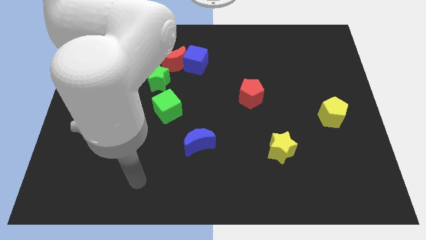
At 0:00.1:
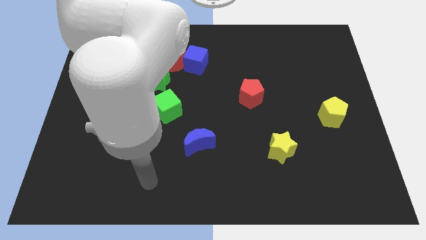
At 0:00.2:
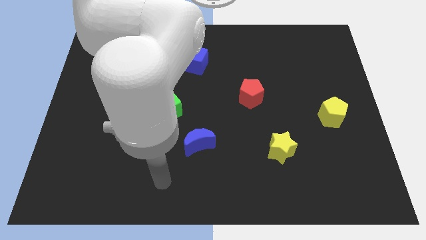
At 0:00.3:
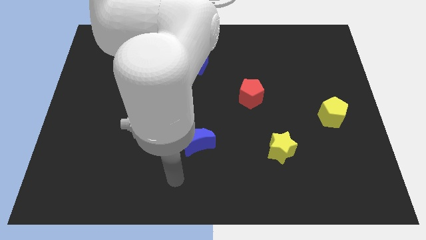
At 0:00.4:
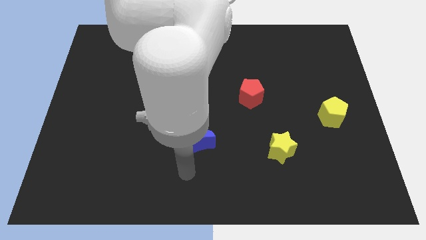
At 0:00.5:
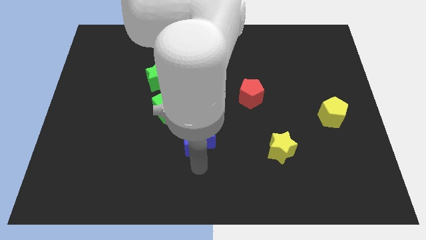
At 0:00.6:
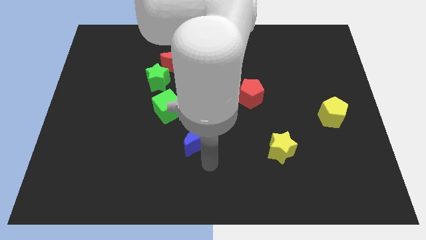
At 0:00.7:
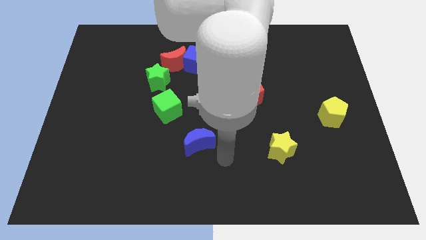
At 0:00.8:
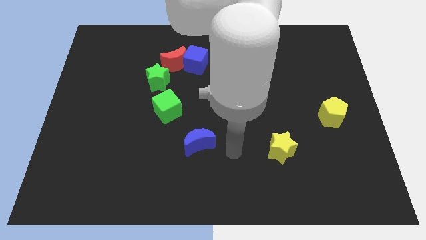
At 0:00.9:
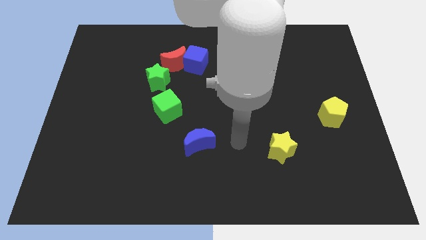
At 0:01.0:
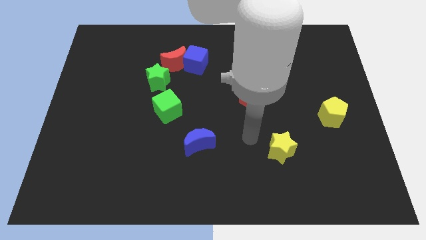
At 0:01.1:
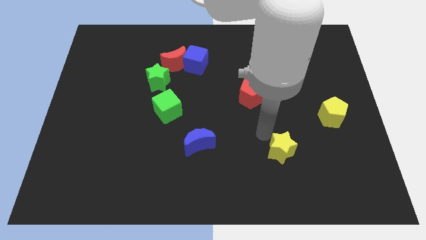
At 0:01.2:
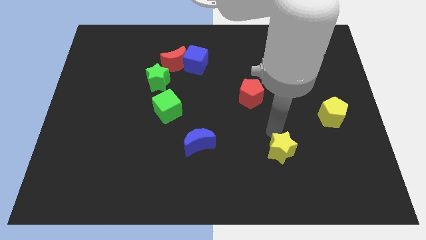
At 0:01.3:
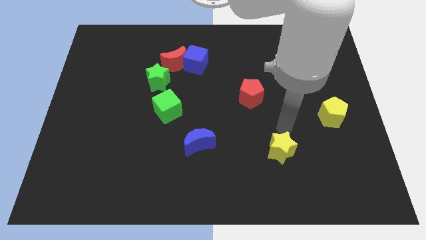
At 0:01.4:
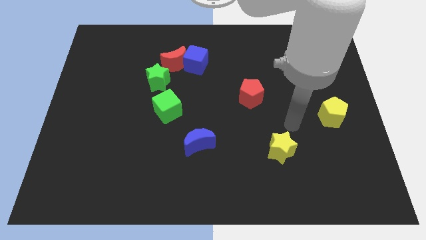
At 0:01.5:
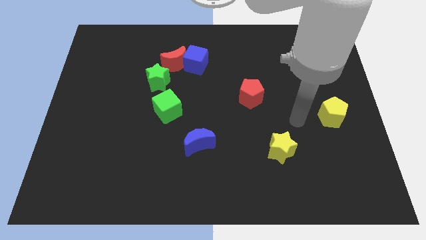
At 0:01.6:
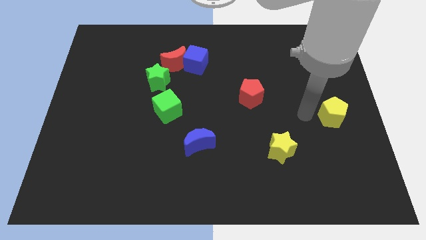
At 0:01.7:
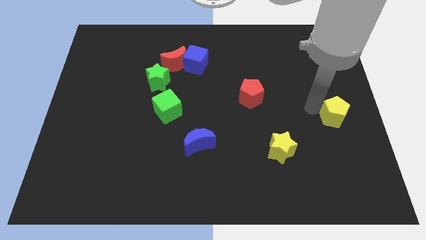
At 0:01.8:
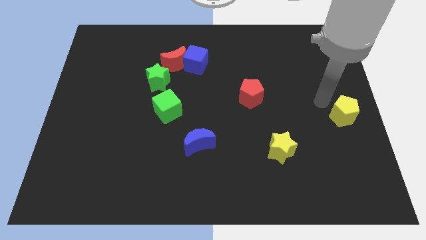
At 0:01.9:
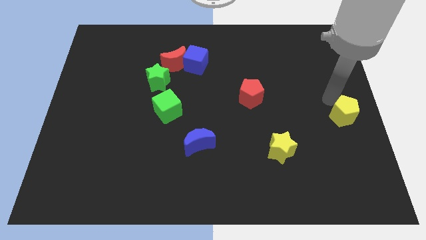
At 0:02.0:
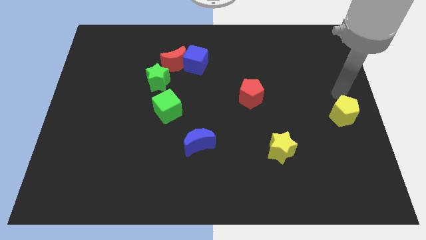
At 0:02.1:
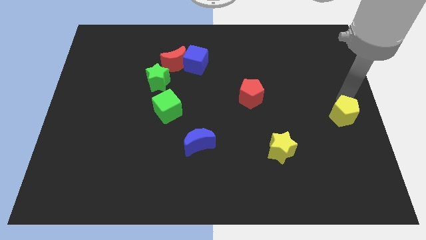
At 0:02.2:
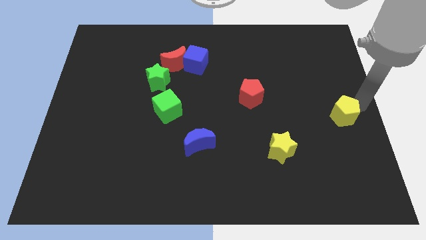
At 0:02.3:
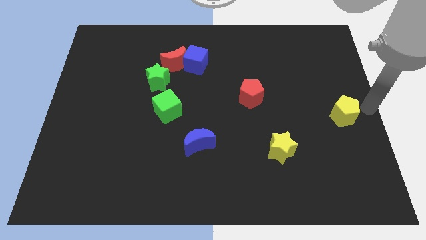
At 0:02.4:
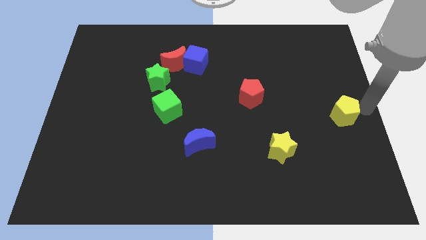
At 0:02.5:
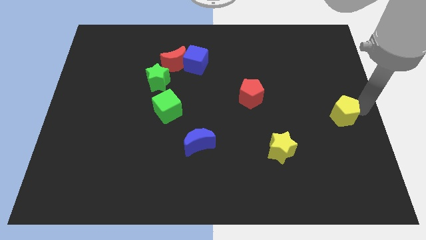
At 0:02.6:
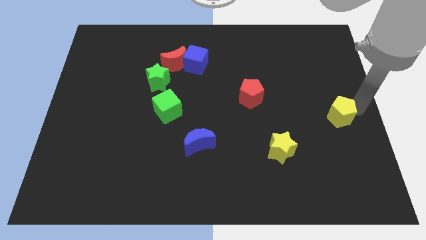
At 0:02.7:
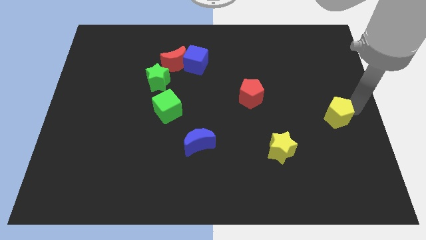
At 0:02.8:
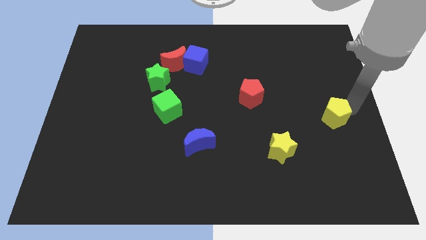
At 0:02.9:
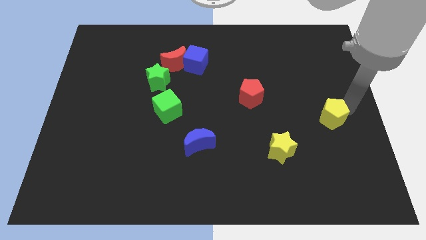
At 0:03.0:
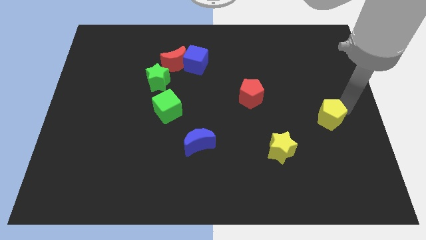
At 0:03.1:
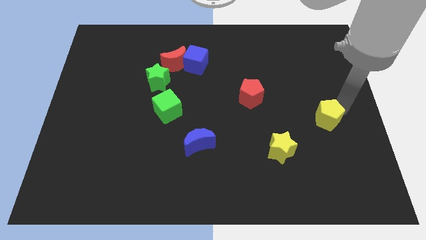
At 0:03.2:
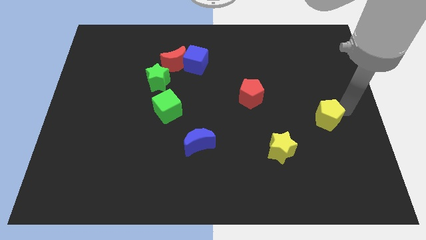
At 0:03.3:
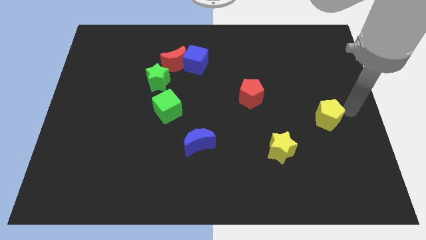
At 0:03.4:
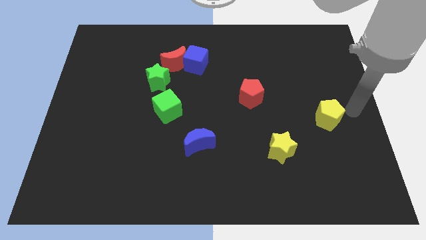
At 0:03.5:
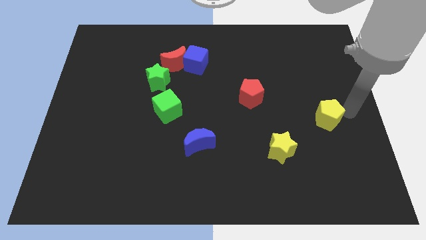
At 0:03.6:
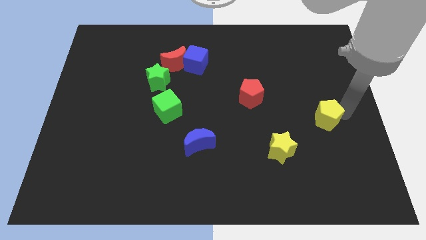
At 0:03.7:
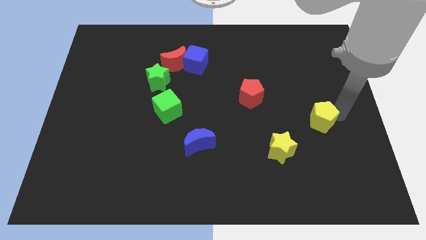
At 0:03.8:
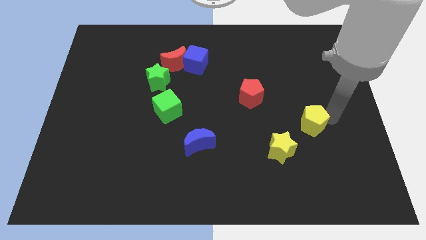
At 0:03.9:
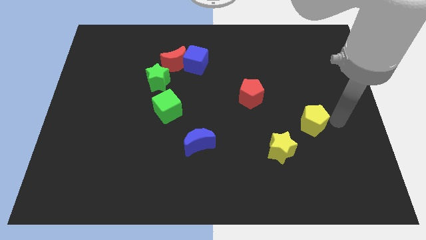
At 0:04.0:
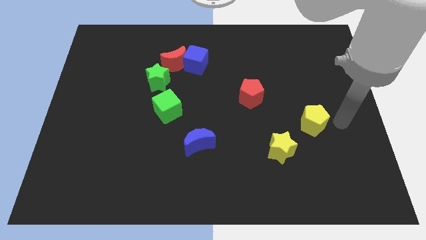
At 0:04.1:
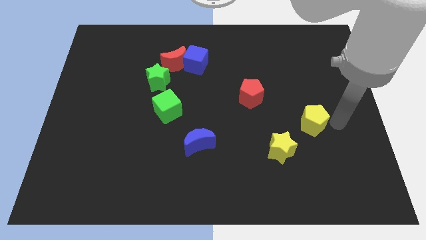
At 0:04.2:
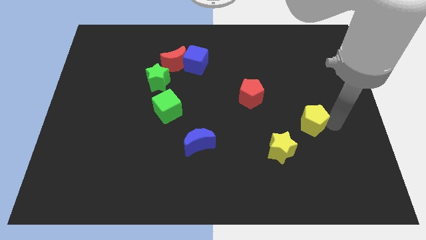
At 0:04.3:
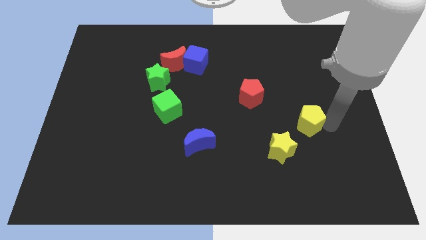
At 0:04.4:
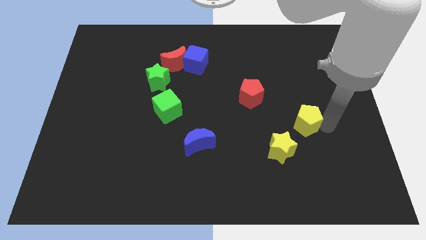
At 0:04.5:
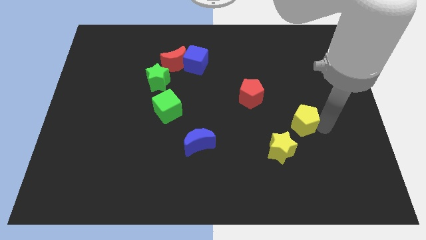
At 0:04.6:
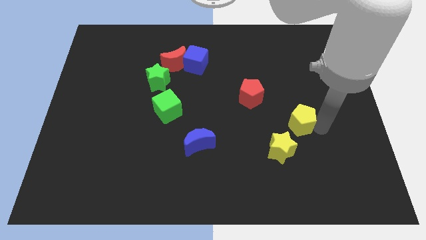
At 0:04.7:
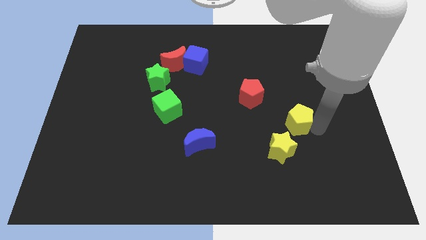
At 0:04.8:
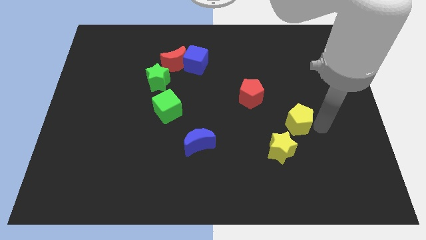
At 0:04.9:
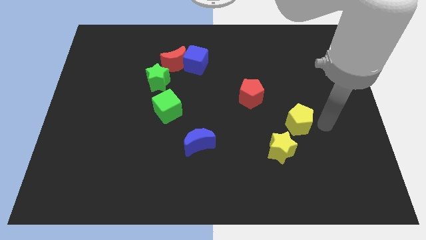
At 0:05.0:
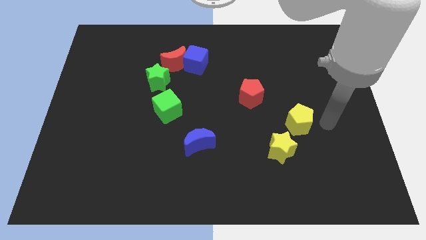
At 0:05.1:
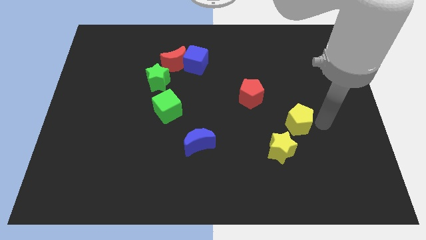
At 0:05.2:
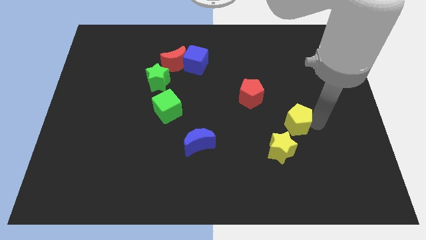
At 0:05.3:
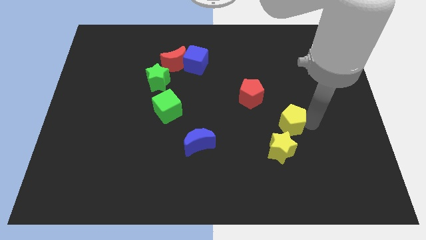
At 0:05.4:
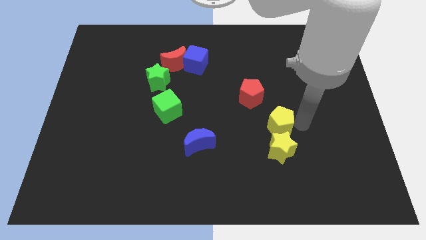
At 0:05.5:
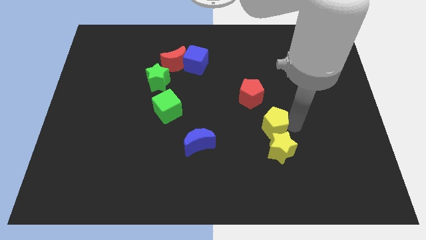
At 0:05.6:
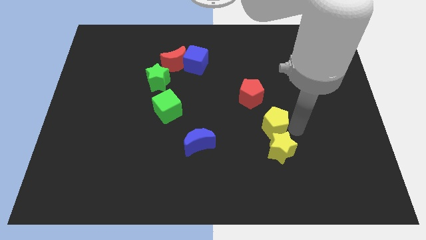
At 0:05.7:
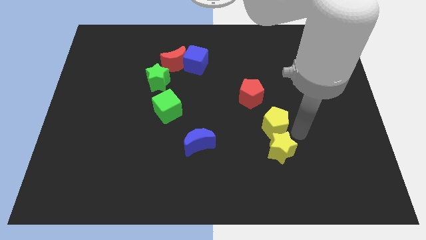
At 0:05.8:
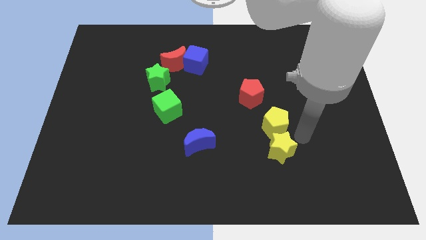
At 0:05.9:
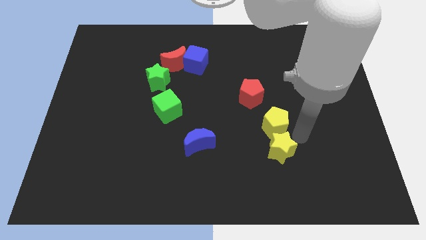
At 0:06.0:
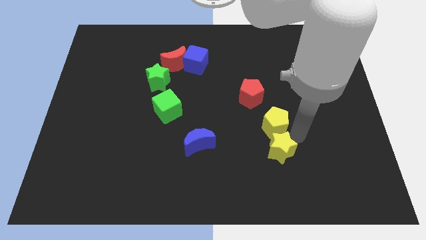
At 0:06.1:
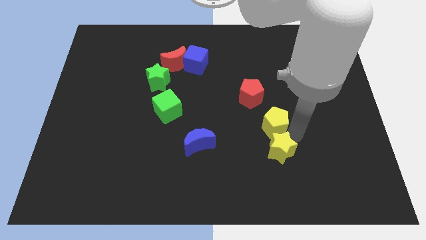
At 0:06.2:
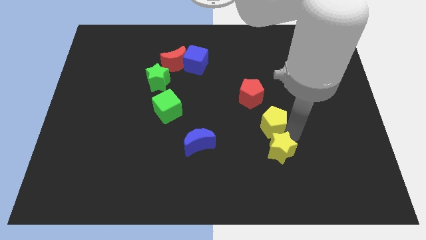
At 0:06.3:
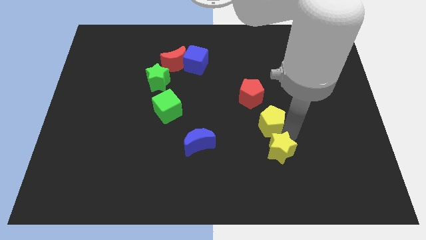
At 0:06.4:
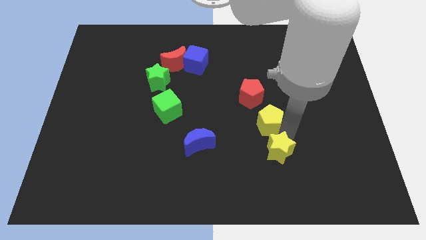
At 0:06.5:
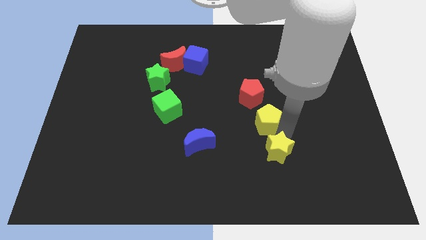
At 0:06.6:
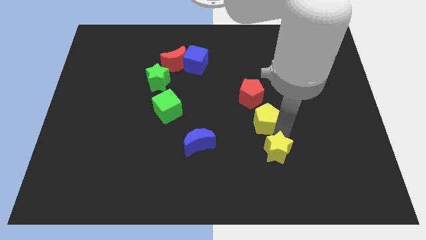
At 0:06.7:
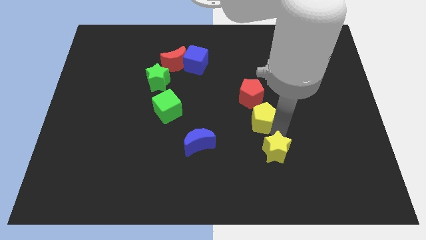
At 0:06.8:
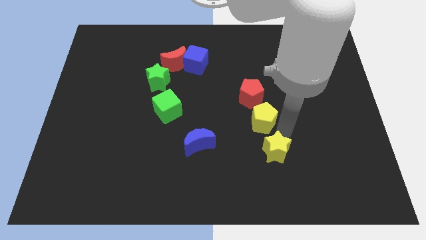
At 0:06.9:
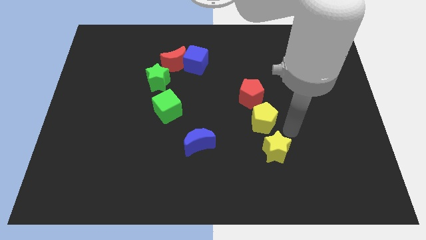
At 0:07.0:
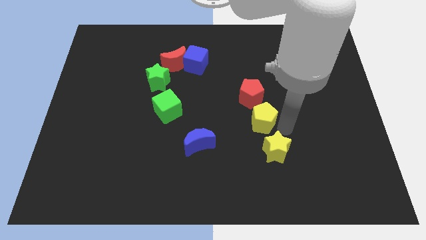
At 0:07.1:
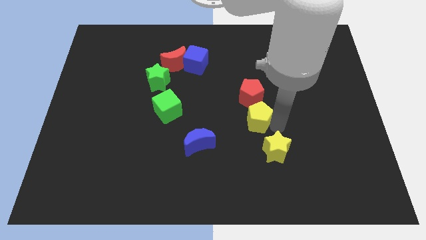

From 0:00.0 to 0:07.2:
push the yellow pentagon to the center of the board
